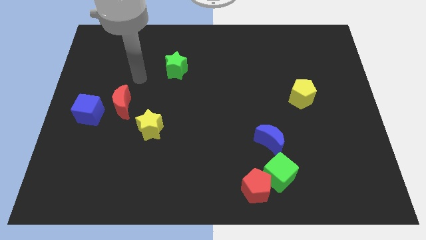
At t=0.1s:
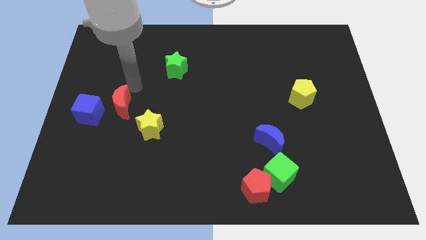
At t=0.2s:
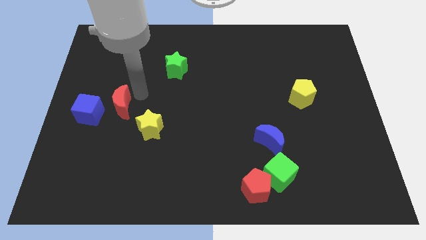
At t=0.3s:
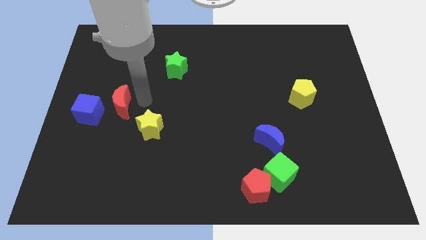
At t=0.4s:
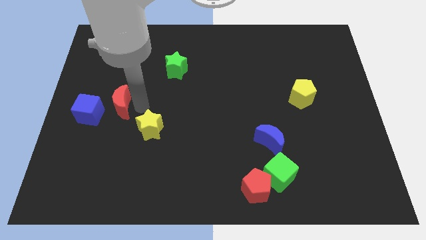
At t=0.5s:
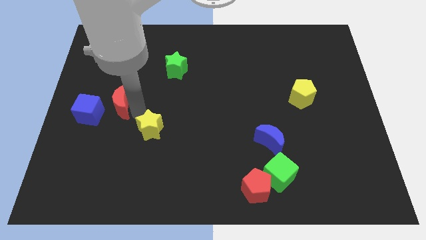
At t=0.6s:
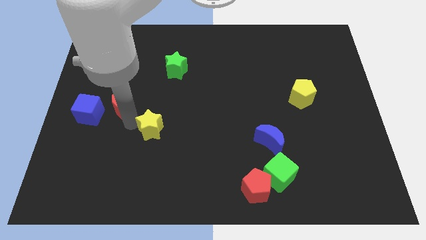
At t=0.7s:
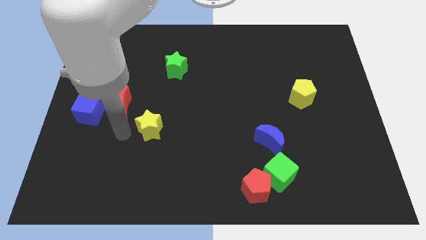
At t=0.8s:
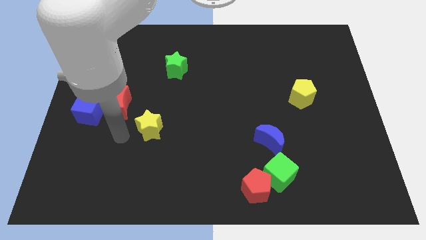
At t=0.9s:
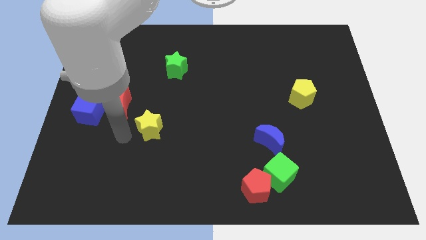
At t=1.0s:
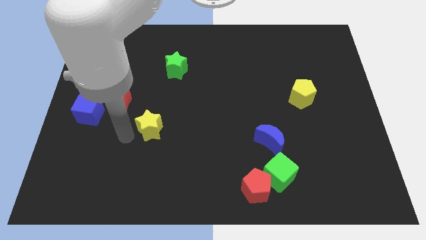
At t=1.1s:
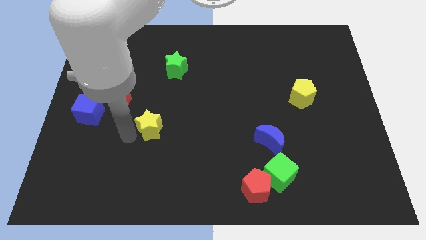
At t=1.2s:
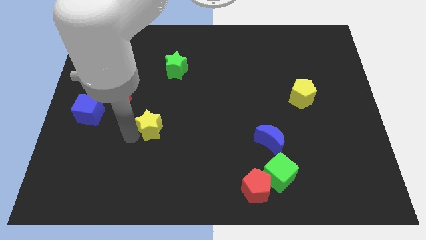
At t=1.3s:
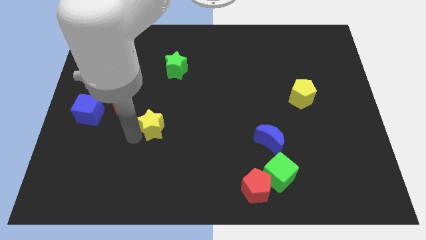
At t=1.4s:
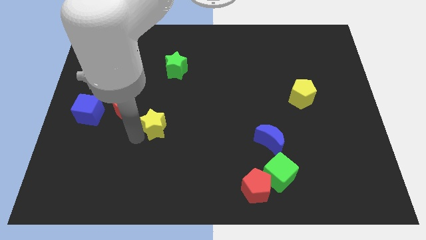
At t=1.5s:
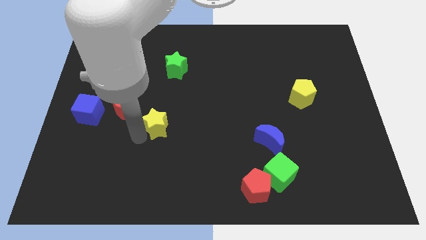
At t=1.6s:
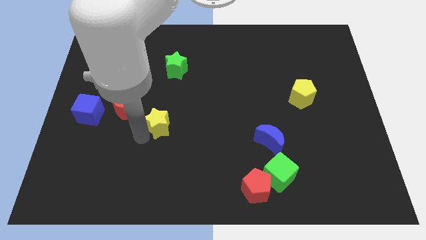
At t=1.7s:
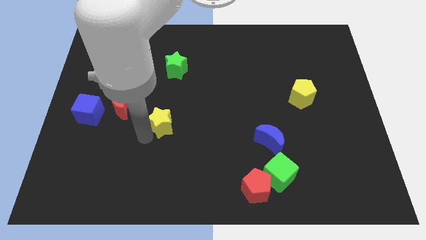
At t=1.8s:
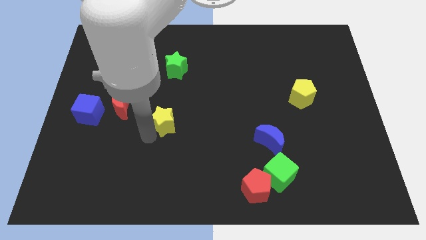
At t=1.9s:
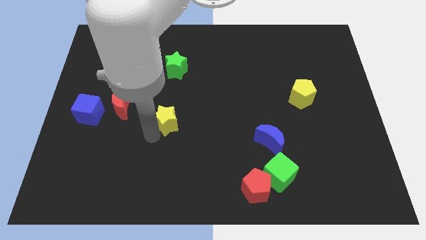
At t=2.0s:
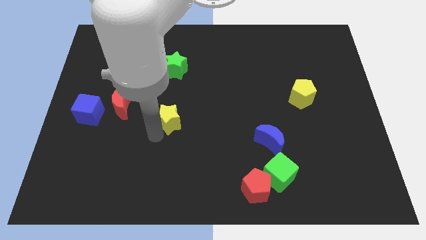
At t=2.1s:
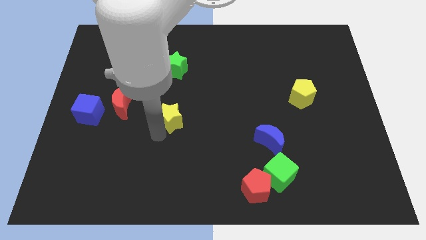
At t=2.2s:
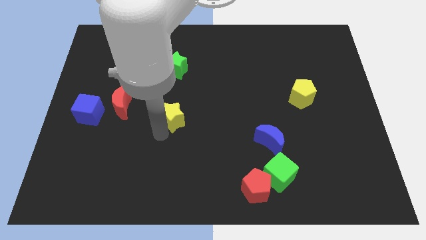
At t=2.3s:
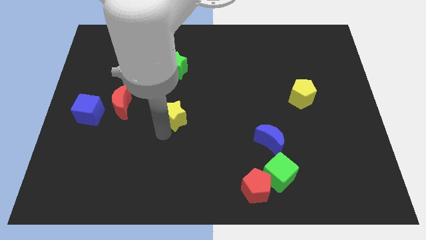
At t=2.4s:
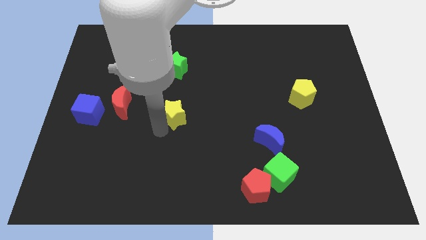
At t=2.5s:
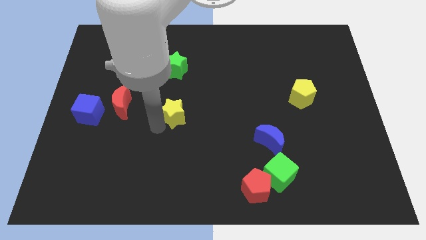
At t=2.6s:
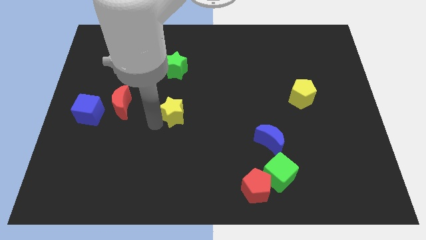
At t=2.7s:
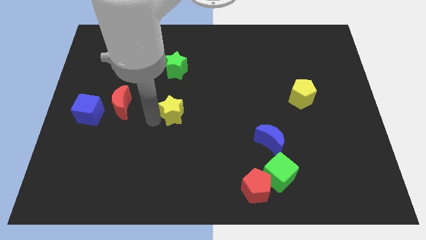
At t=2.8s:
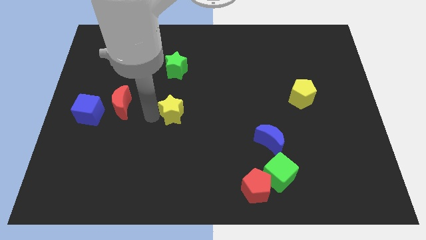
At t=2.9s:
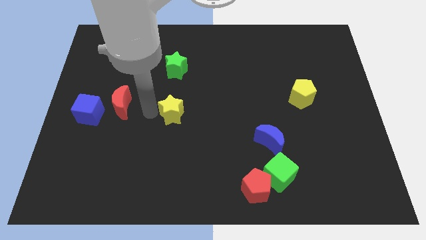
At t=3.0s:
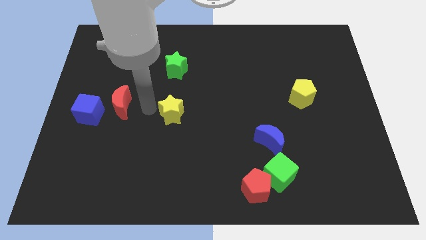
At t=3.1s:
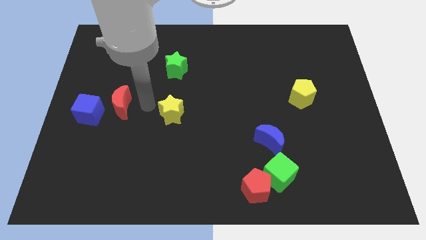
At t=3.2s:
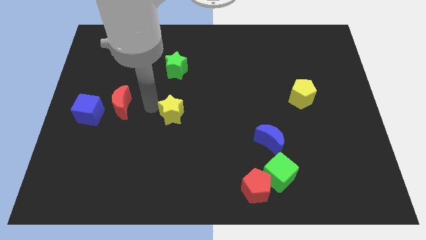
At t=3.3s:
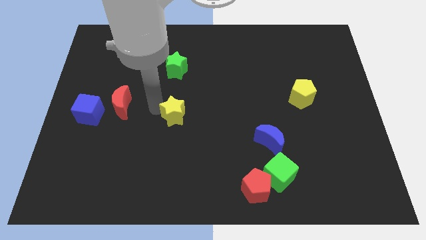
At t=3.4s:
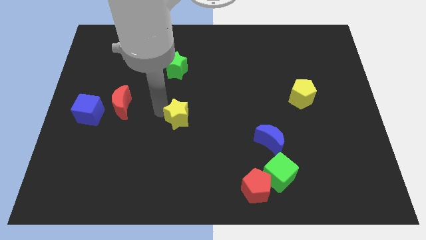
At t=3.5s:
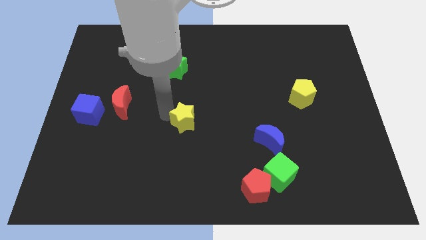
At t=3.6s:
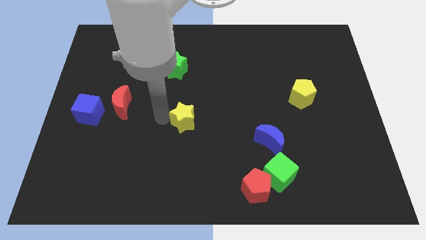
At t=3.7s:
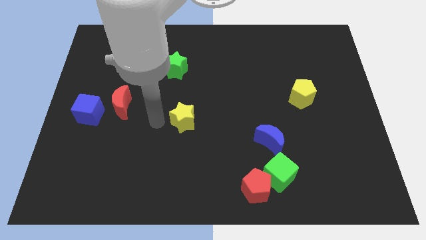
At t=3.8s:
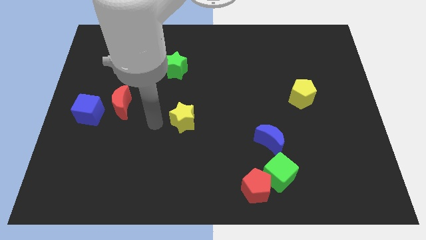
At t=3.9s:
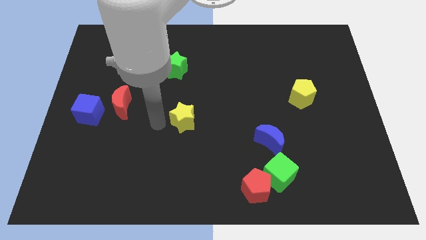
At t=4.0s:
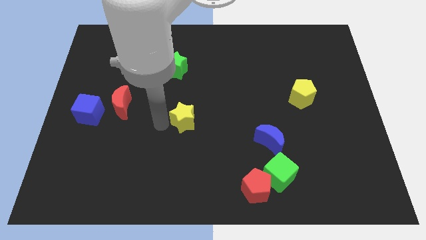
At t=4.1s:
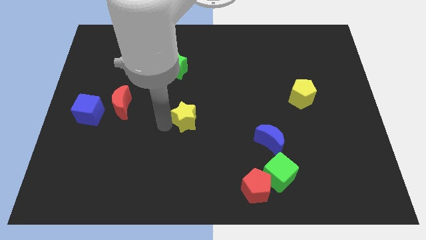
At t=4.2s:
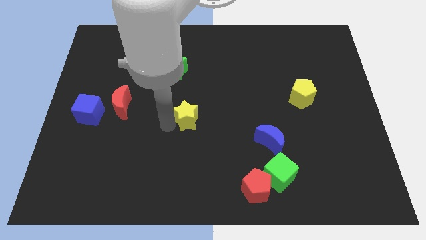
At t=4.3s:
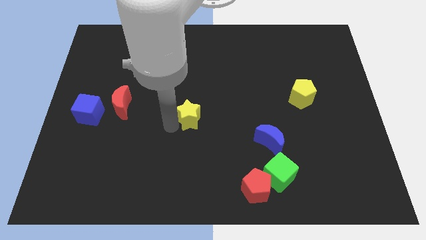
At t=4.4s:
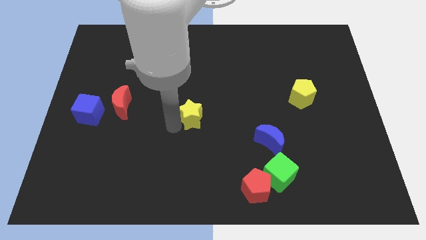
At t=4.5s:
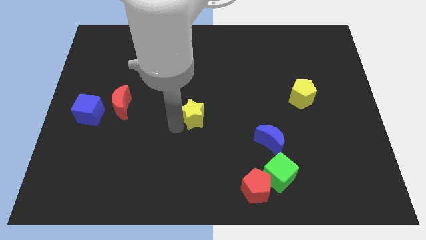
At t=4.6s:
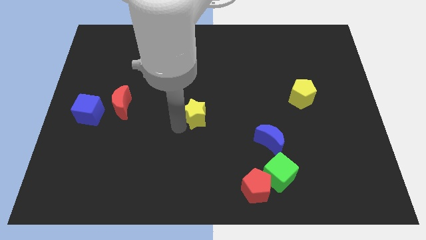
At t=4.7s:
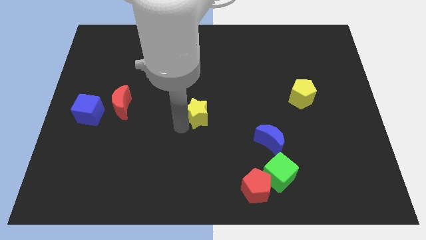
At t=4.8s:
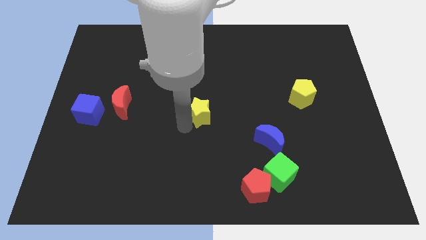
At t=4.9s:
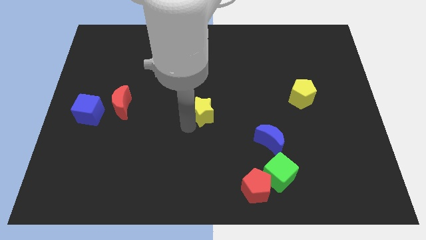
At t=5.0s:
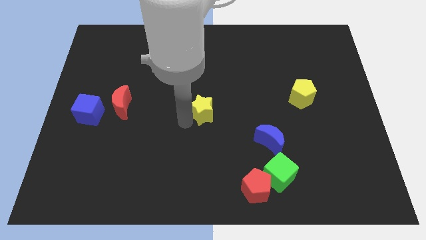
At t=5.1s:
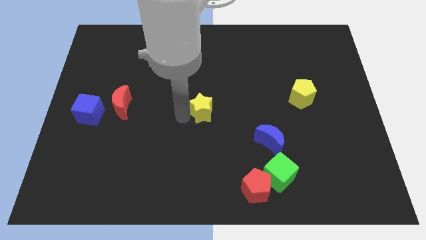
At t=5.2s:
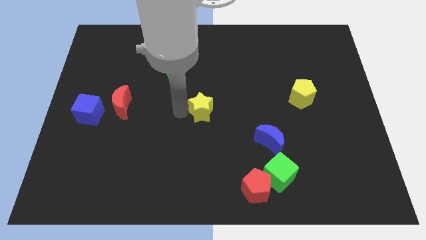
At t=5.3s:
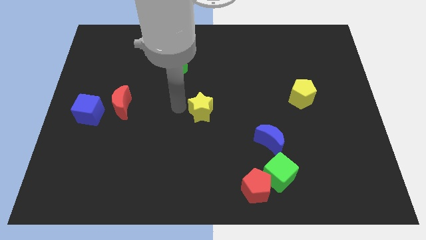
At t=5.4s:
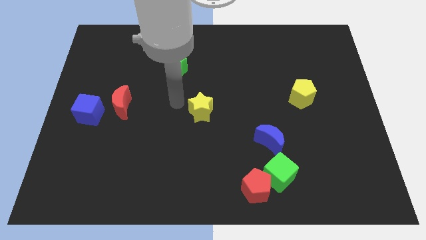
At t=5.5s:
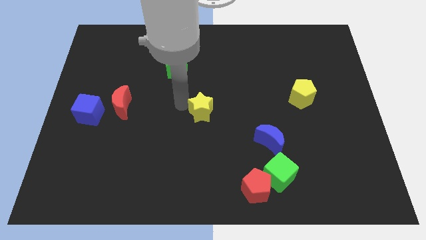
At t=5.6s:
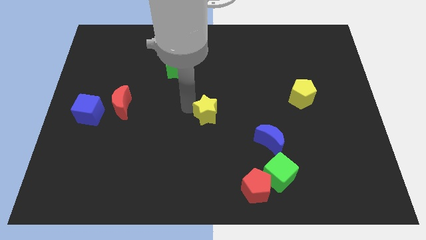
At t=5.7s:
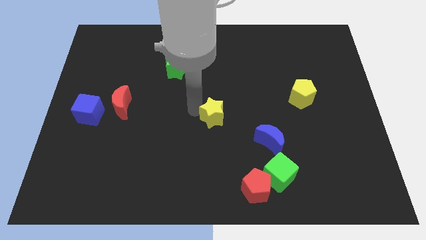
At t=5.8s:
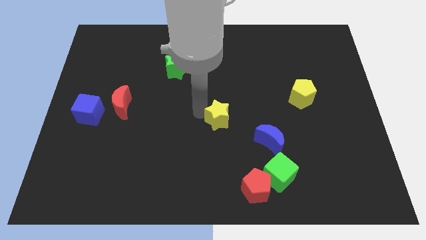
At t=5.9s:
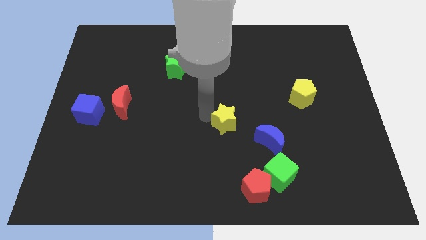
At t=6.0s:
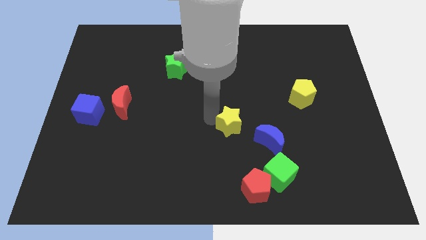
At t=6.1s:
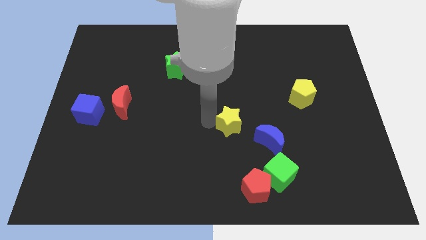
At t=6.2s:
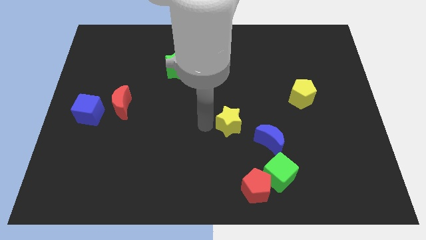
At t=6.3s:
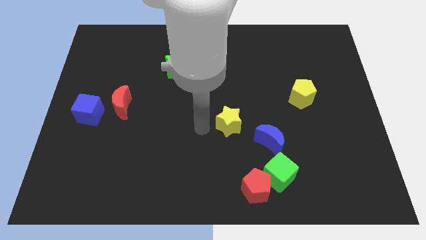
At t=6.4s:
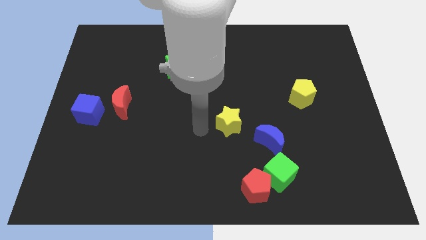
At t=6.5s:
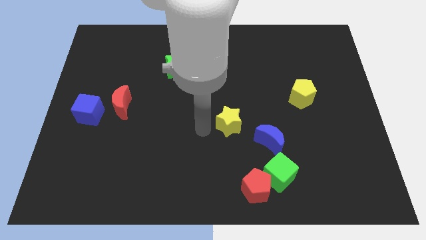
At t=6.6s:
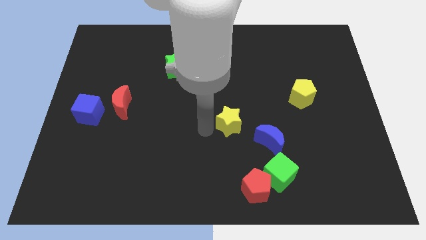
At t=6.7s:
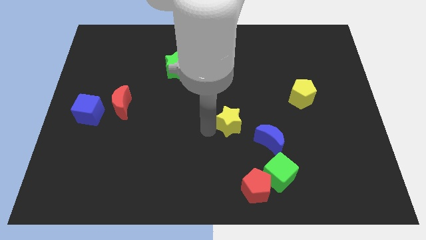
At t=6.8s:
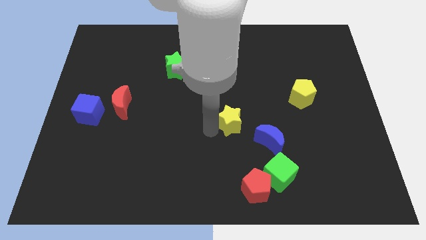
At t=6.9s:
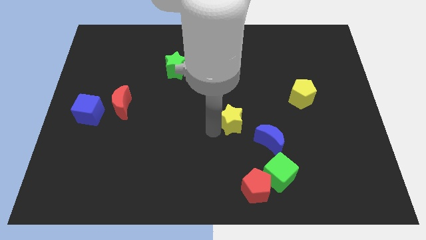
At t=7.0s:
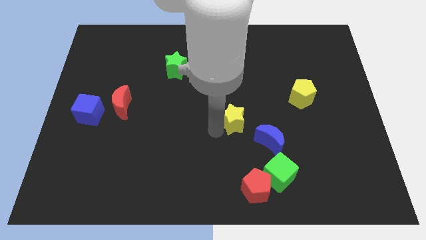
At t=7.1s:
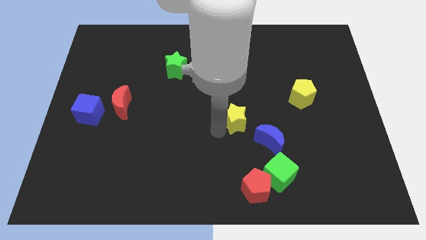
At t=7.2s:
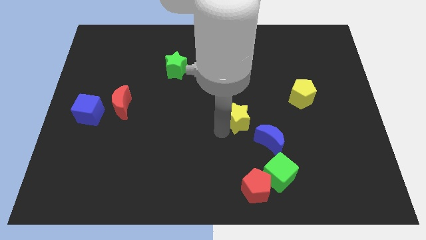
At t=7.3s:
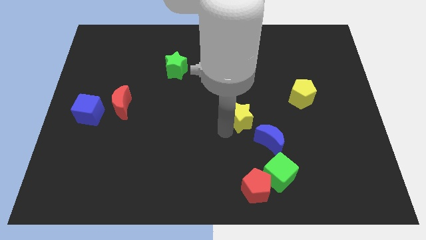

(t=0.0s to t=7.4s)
push the yellow star right

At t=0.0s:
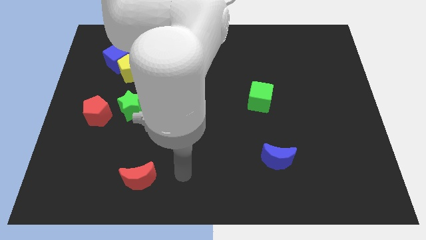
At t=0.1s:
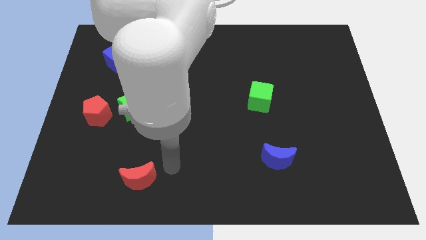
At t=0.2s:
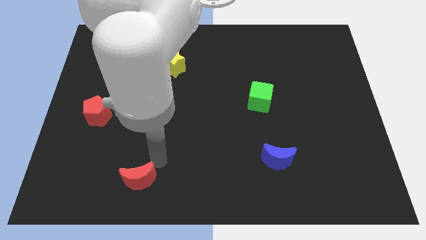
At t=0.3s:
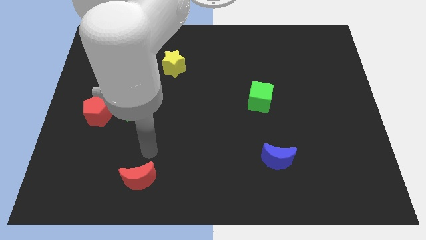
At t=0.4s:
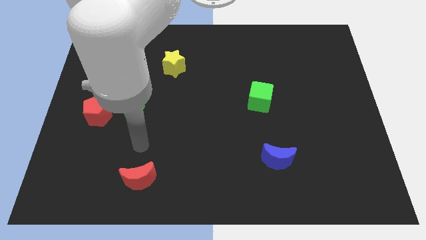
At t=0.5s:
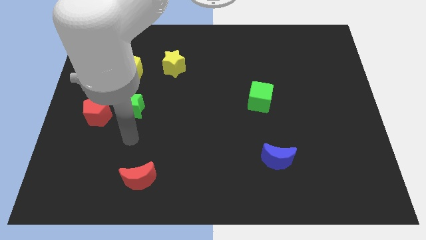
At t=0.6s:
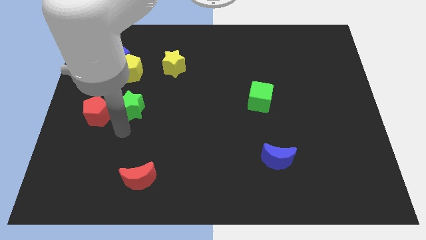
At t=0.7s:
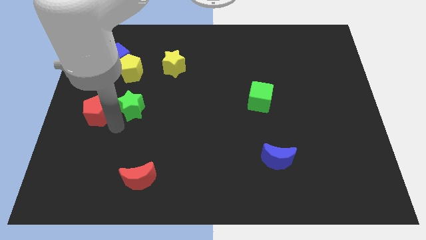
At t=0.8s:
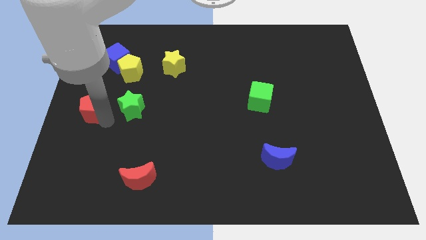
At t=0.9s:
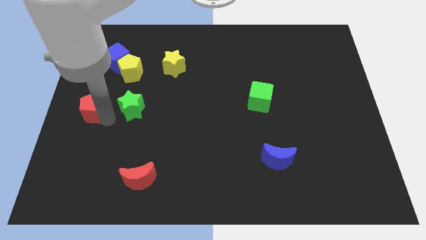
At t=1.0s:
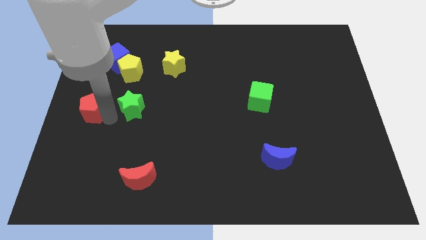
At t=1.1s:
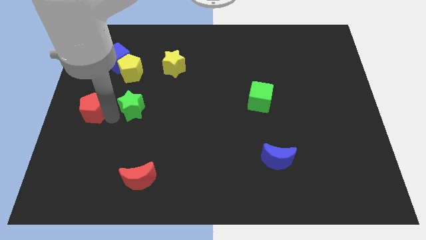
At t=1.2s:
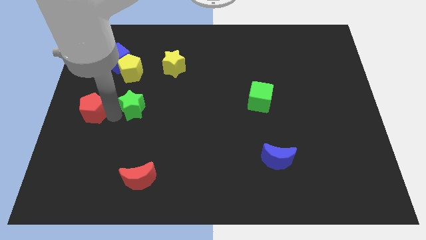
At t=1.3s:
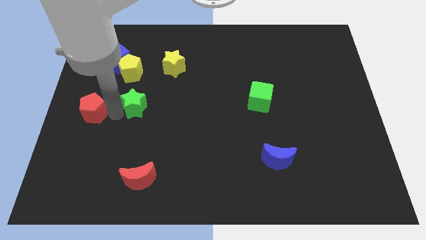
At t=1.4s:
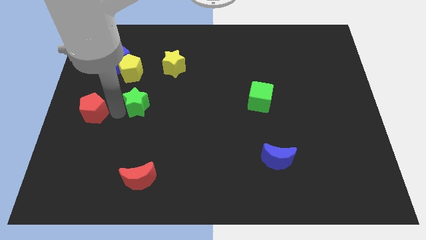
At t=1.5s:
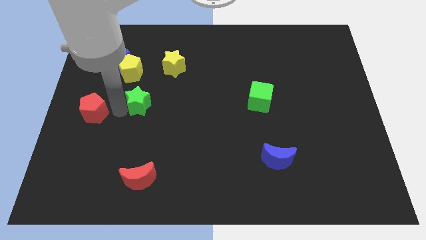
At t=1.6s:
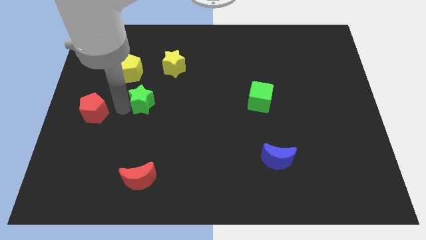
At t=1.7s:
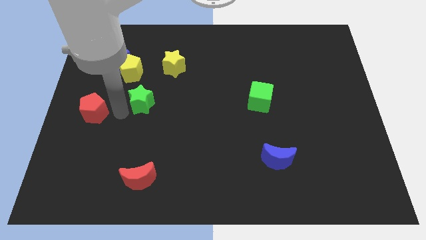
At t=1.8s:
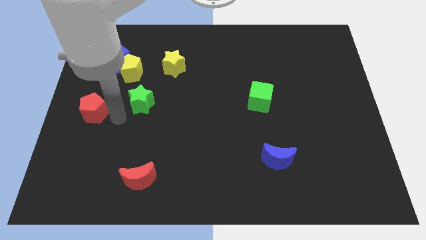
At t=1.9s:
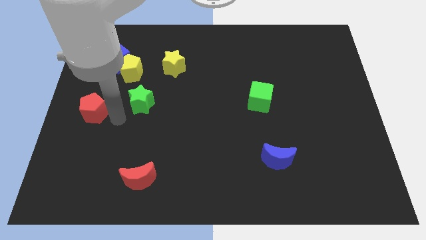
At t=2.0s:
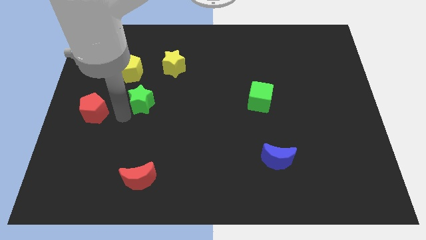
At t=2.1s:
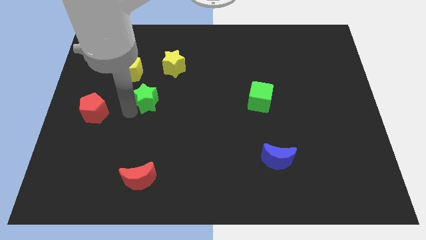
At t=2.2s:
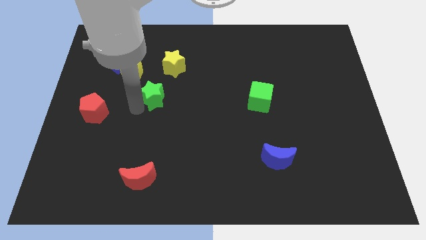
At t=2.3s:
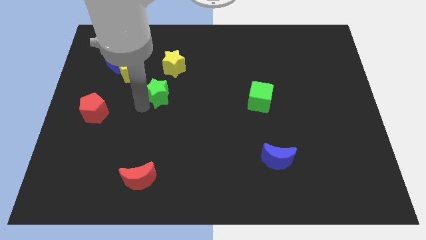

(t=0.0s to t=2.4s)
slightly push the green star up and then right
